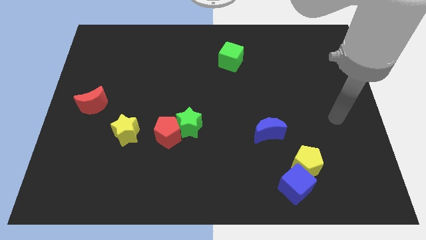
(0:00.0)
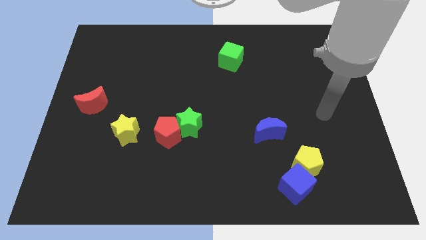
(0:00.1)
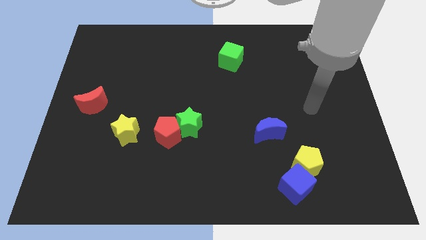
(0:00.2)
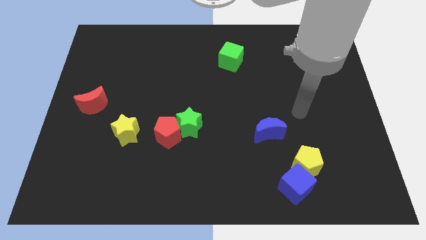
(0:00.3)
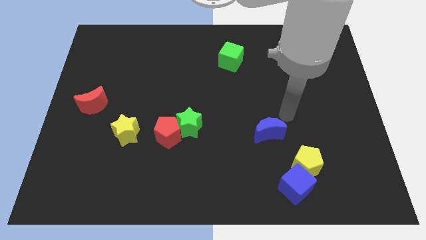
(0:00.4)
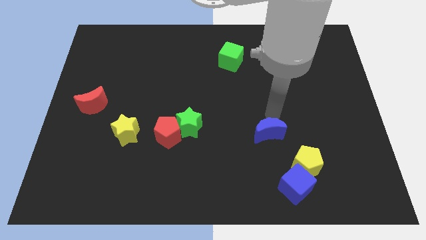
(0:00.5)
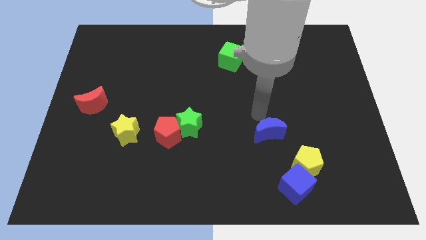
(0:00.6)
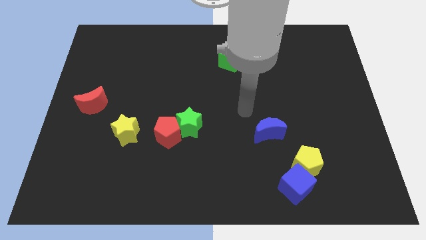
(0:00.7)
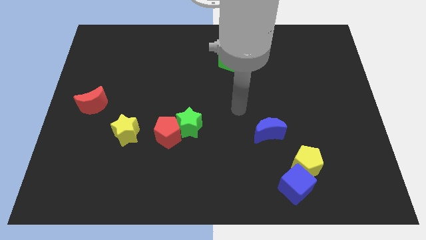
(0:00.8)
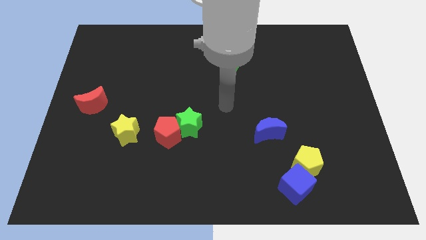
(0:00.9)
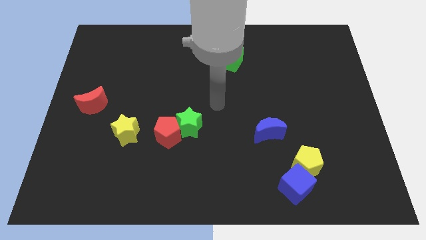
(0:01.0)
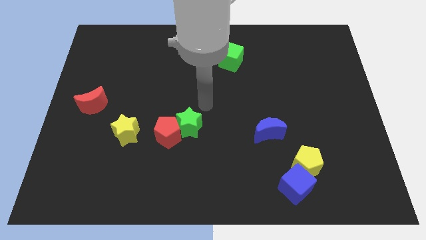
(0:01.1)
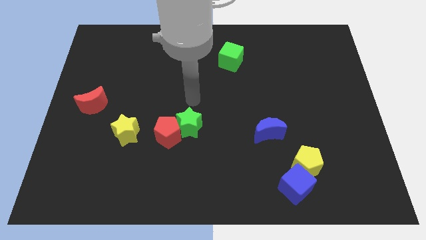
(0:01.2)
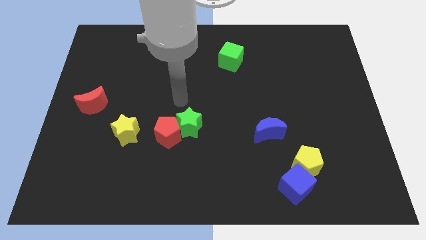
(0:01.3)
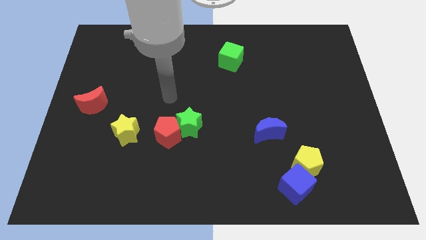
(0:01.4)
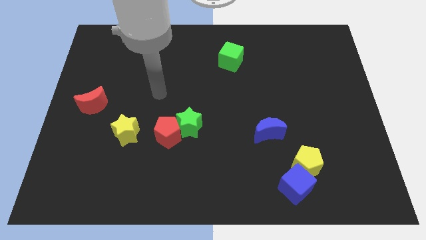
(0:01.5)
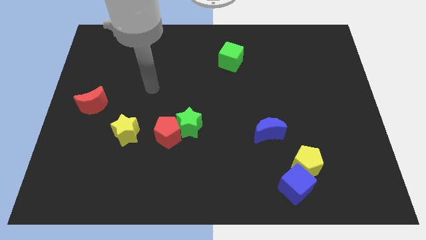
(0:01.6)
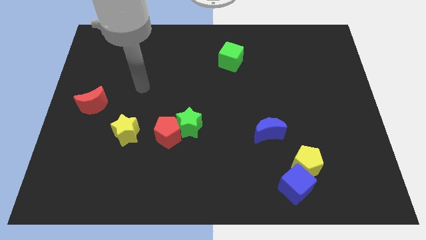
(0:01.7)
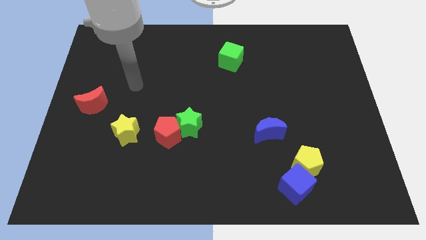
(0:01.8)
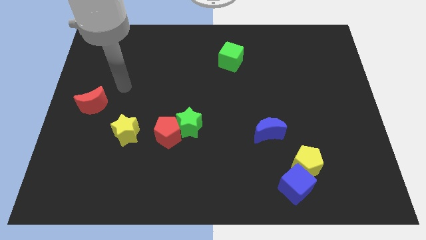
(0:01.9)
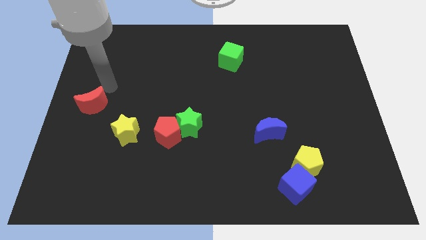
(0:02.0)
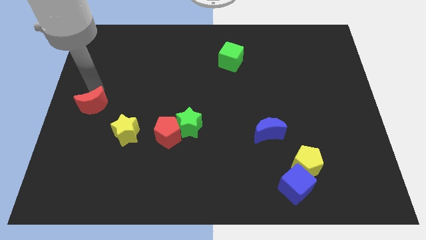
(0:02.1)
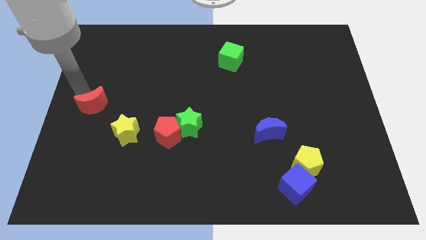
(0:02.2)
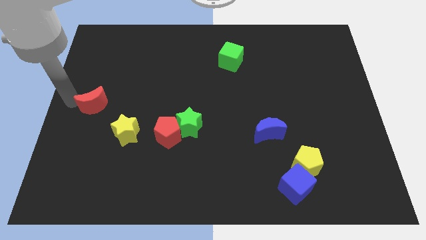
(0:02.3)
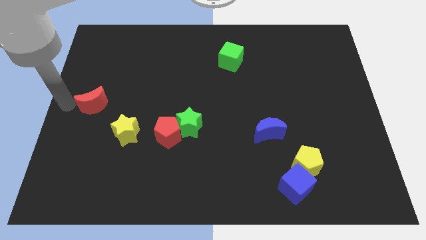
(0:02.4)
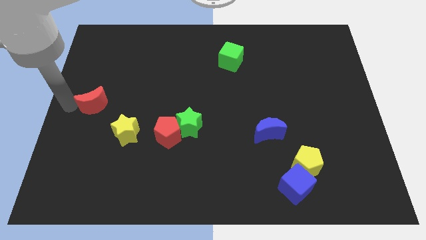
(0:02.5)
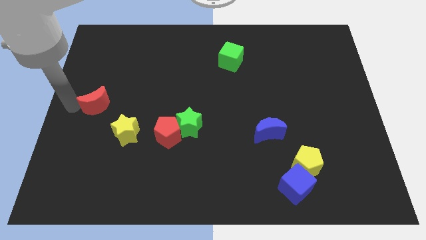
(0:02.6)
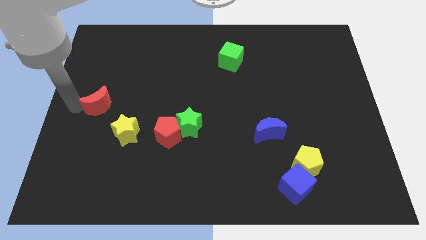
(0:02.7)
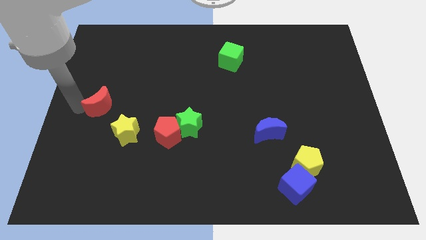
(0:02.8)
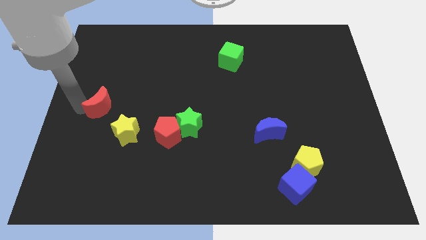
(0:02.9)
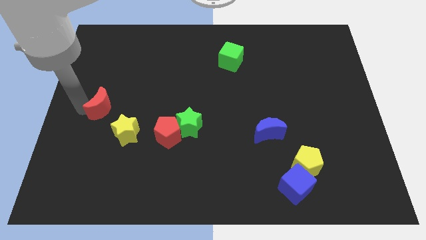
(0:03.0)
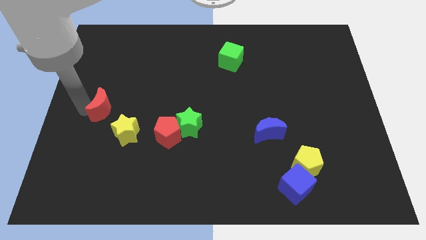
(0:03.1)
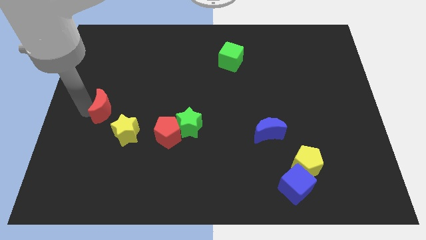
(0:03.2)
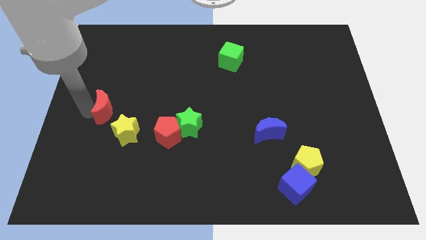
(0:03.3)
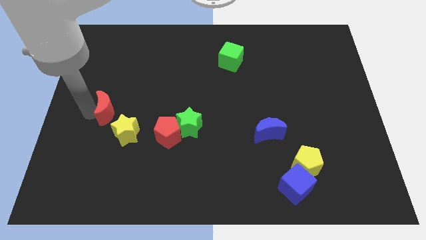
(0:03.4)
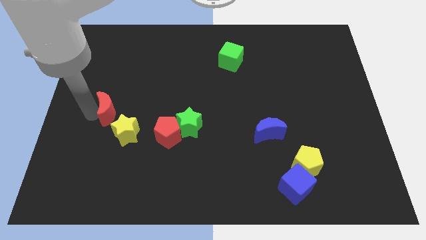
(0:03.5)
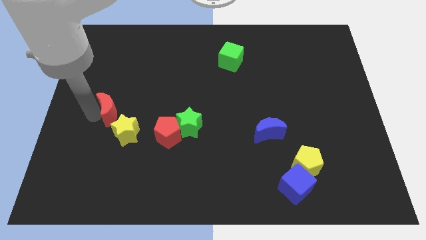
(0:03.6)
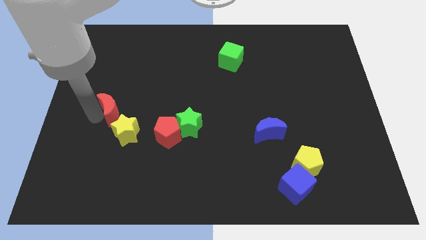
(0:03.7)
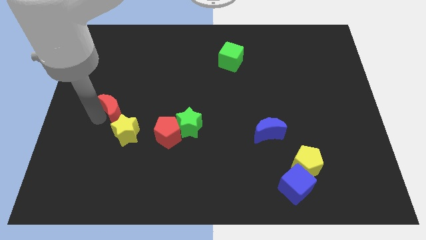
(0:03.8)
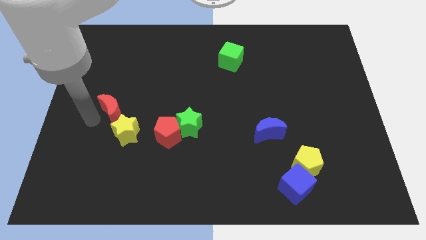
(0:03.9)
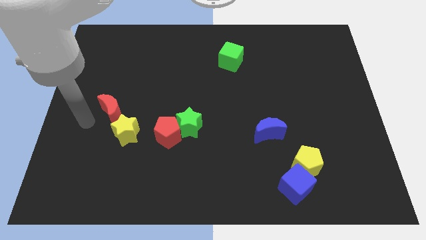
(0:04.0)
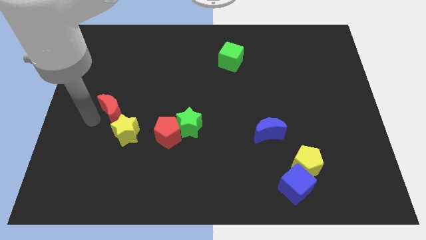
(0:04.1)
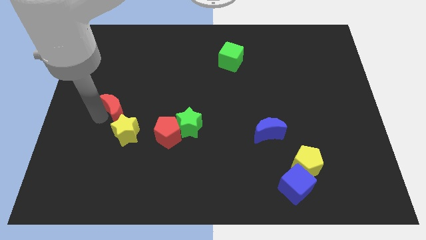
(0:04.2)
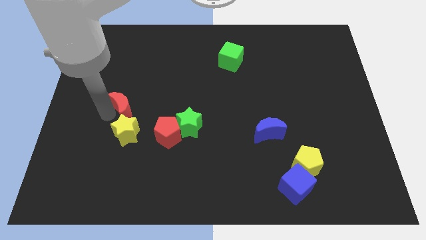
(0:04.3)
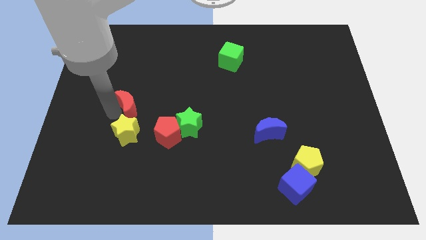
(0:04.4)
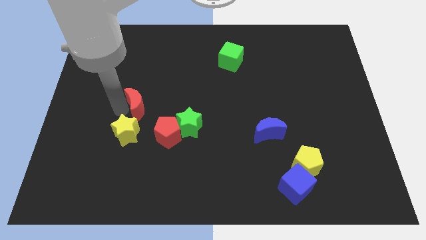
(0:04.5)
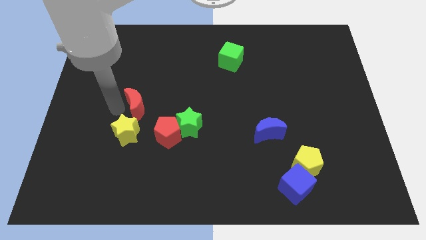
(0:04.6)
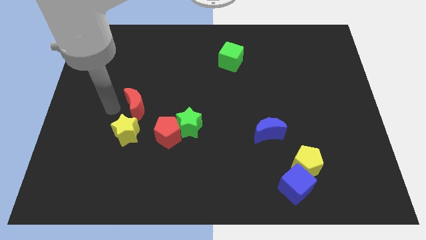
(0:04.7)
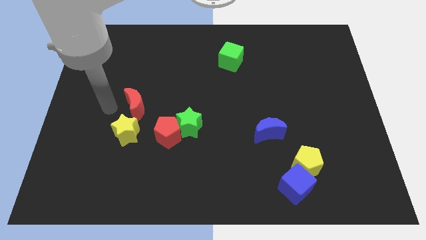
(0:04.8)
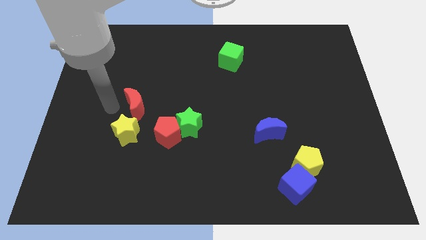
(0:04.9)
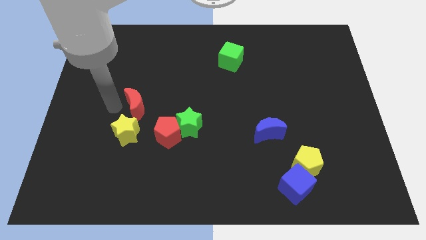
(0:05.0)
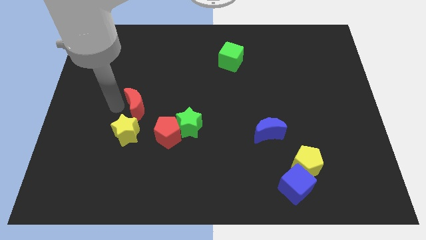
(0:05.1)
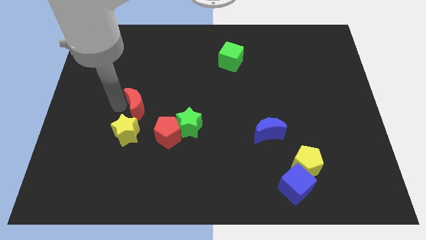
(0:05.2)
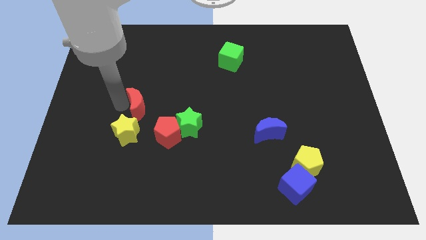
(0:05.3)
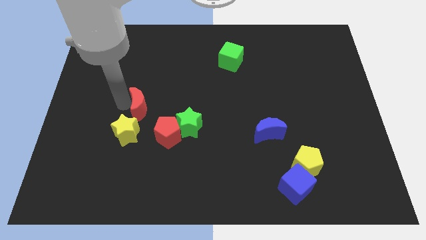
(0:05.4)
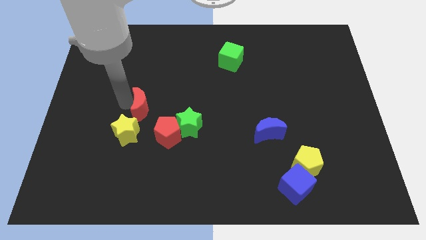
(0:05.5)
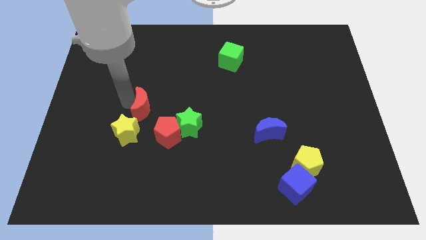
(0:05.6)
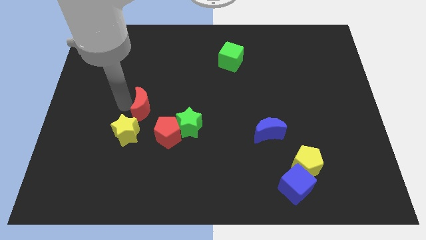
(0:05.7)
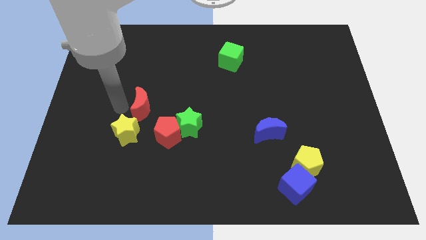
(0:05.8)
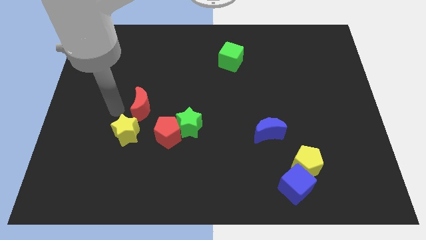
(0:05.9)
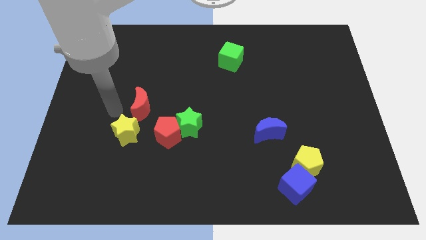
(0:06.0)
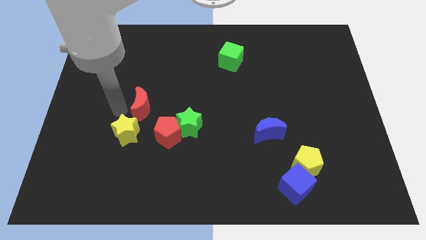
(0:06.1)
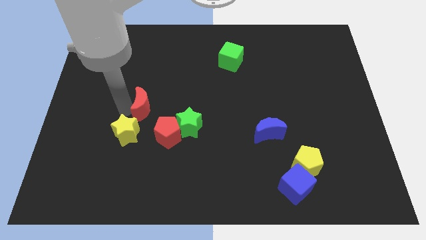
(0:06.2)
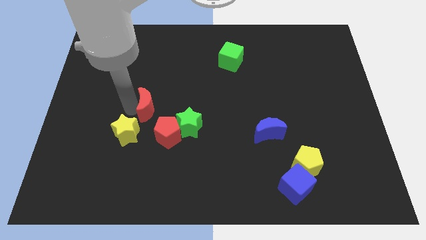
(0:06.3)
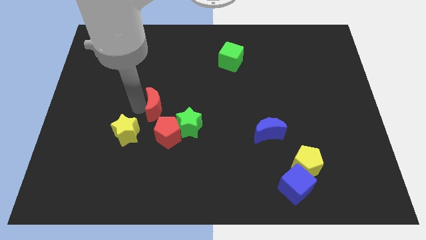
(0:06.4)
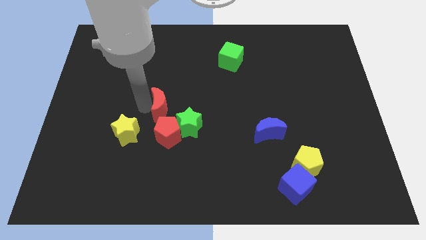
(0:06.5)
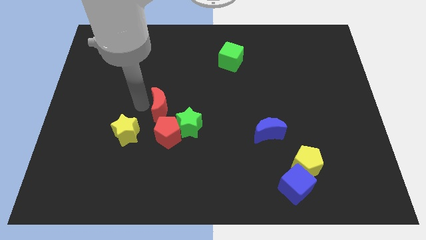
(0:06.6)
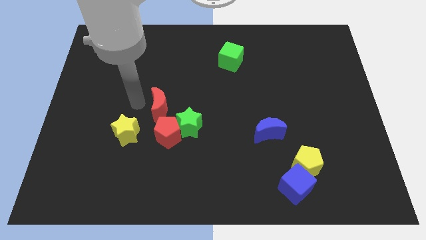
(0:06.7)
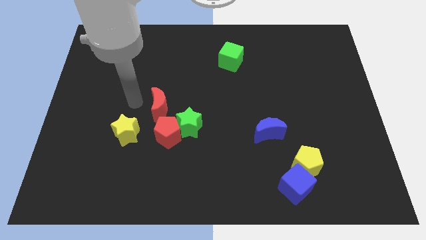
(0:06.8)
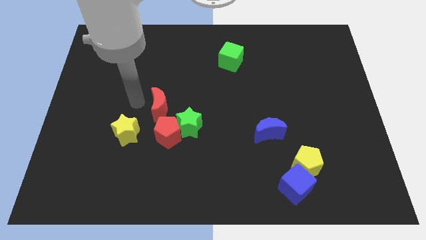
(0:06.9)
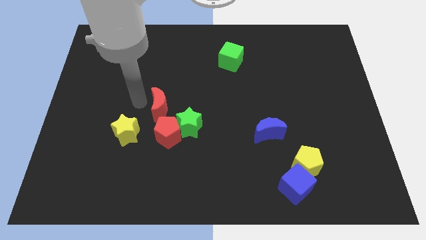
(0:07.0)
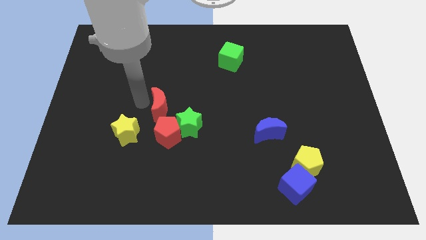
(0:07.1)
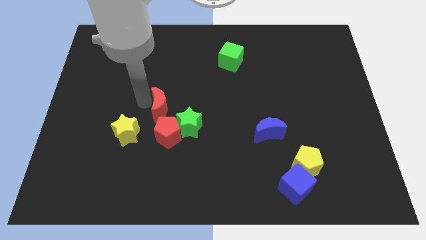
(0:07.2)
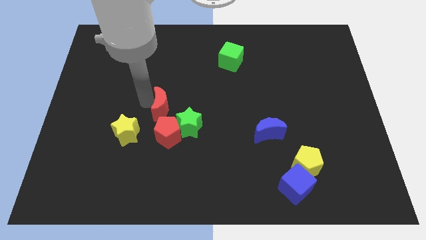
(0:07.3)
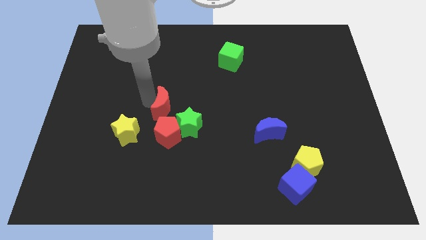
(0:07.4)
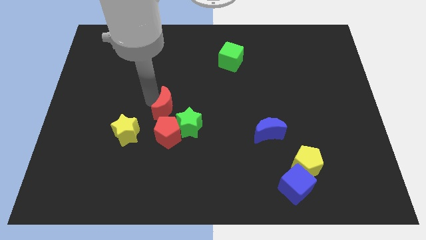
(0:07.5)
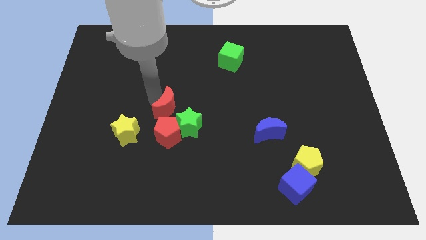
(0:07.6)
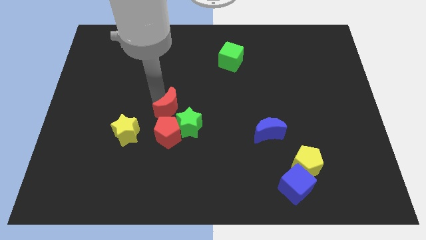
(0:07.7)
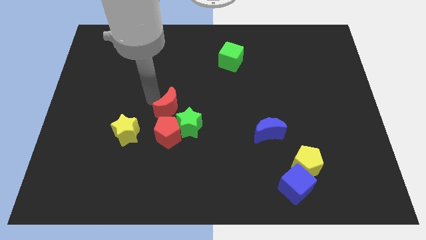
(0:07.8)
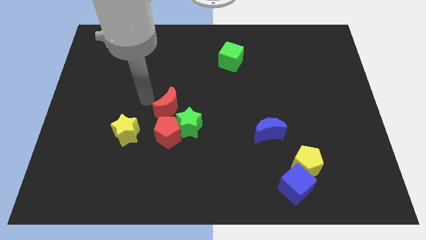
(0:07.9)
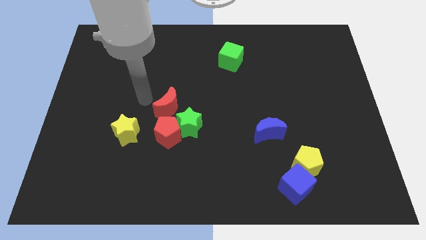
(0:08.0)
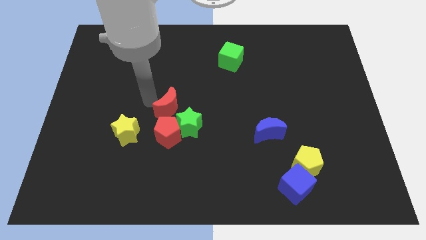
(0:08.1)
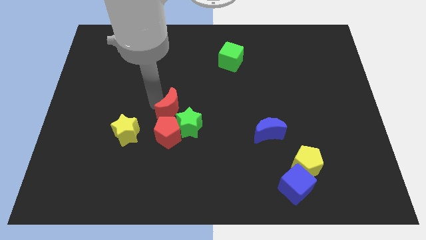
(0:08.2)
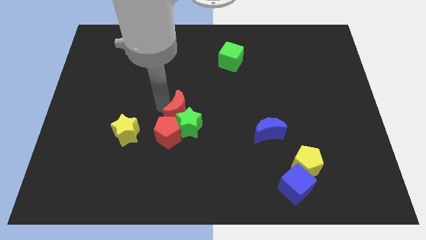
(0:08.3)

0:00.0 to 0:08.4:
push the red moon to the top right side of the red pentagon
